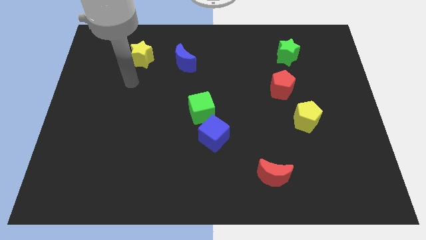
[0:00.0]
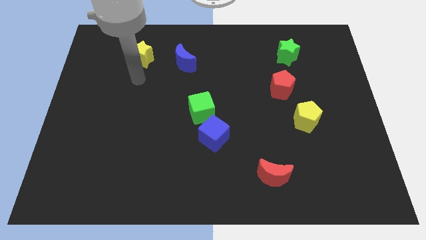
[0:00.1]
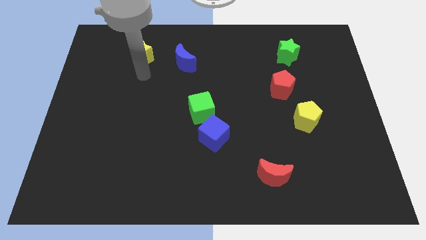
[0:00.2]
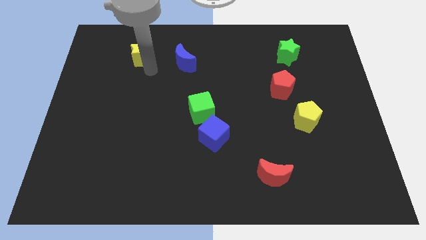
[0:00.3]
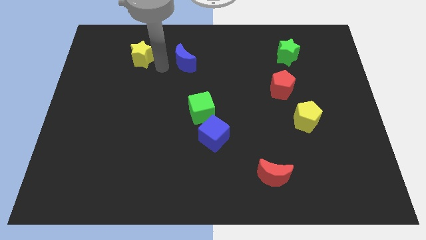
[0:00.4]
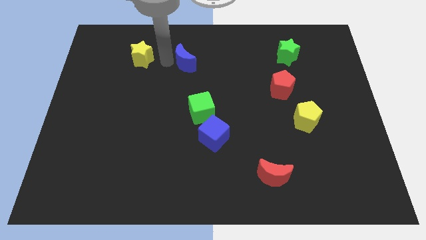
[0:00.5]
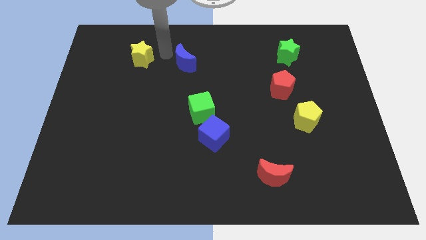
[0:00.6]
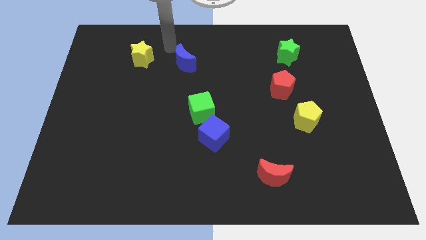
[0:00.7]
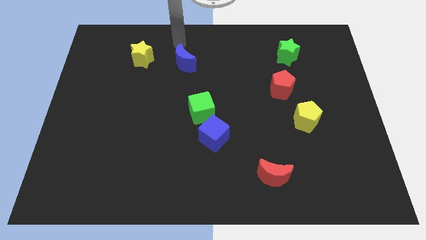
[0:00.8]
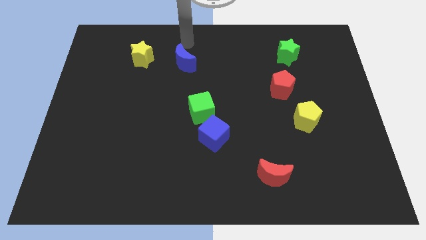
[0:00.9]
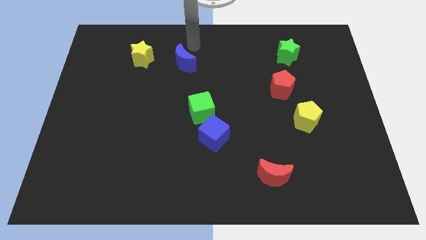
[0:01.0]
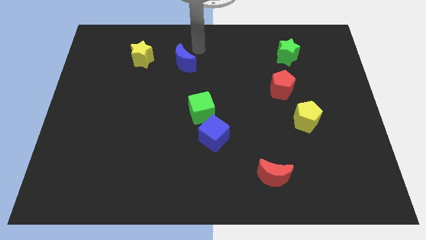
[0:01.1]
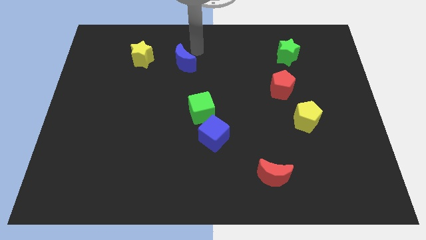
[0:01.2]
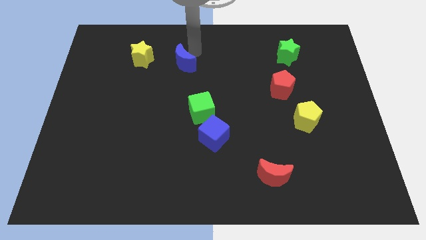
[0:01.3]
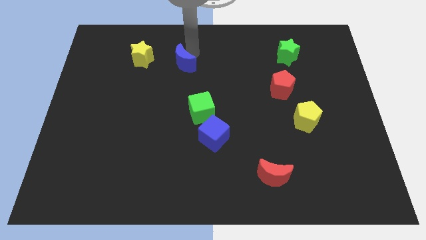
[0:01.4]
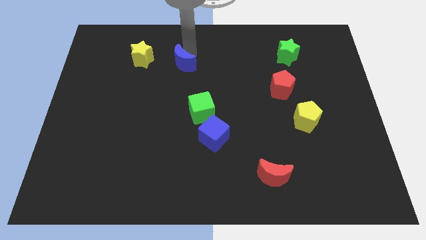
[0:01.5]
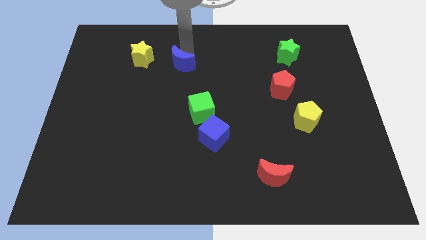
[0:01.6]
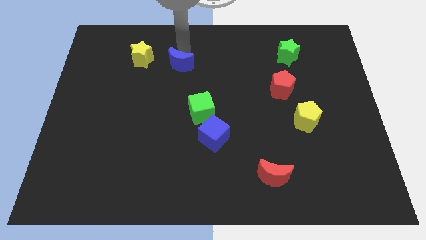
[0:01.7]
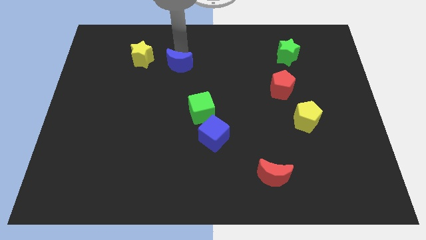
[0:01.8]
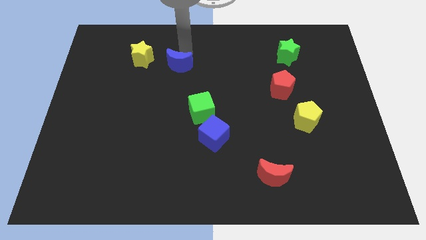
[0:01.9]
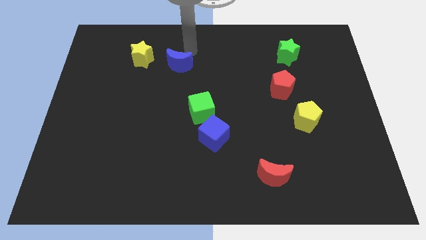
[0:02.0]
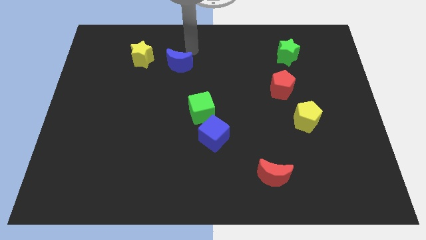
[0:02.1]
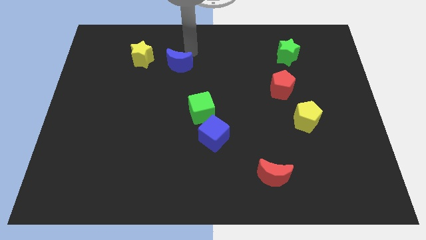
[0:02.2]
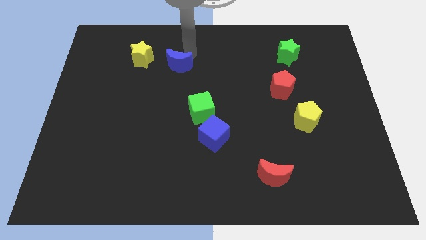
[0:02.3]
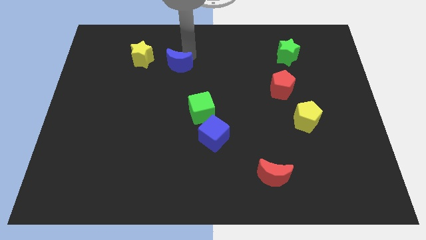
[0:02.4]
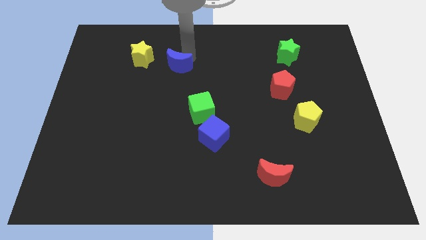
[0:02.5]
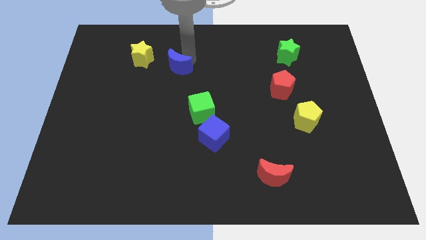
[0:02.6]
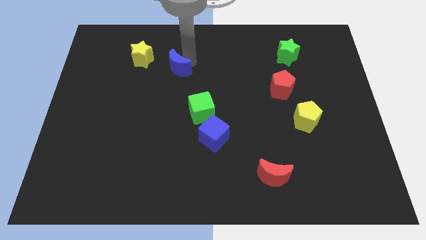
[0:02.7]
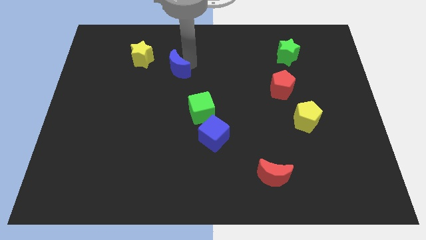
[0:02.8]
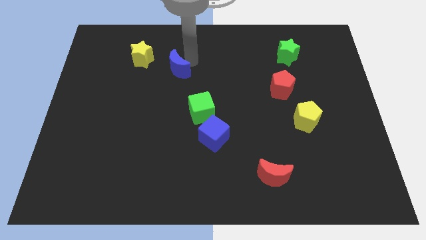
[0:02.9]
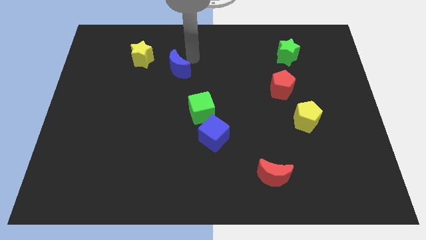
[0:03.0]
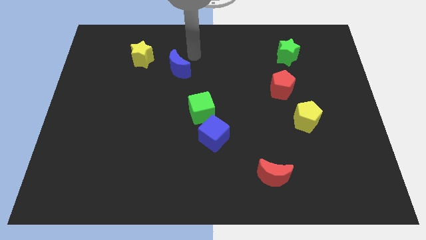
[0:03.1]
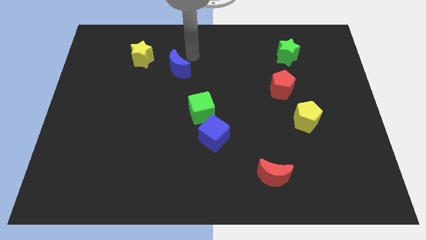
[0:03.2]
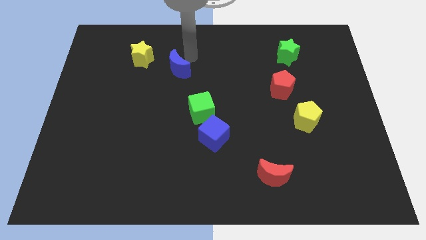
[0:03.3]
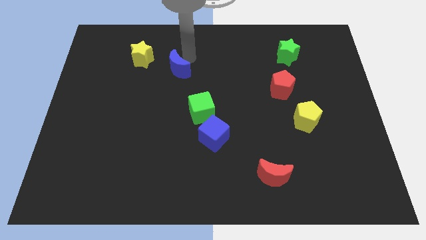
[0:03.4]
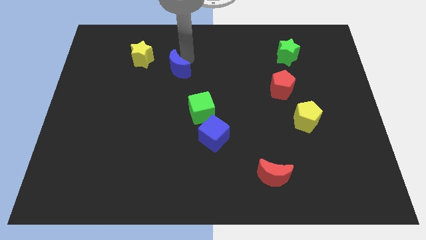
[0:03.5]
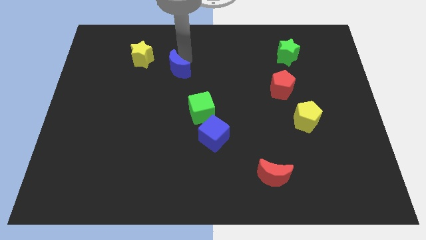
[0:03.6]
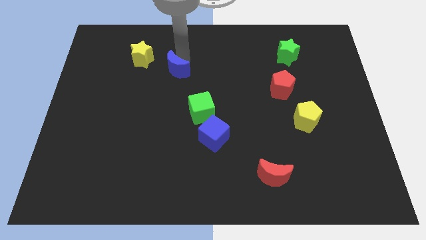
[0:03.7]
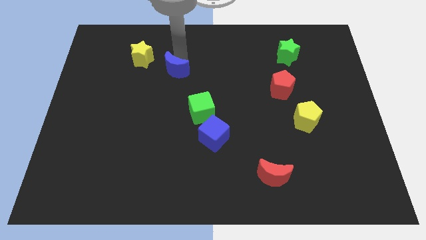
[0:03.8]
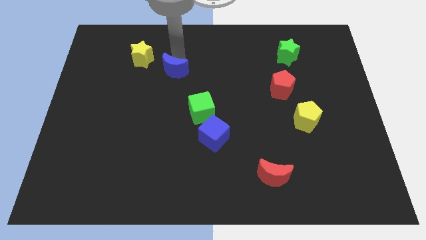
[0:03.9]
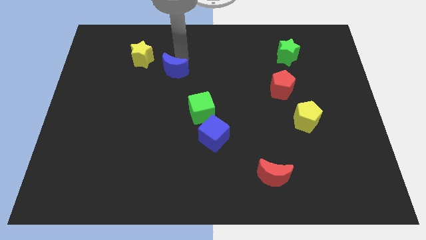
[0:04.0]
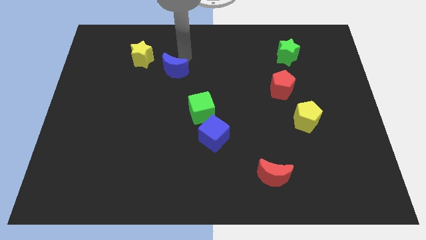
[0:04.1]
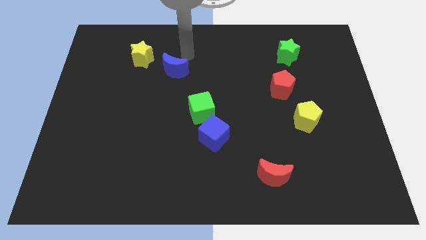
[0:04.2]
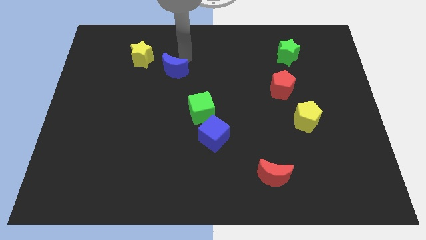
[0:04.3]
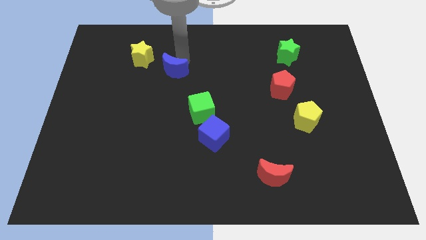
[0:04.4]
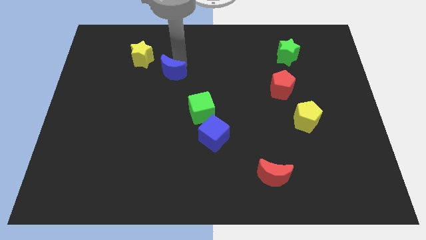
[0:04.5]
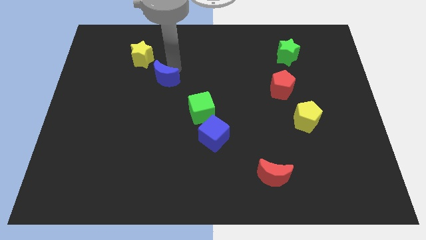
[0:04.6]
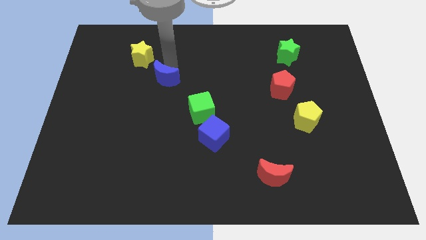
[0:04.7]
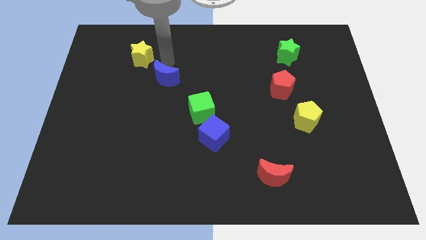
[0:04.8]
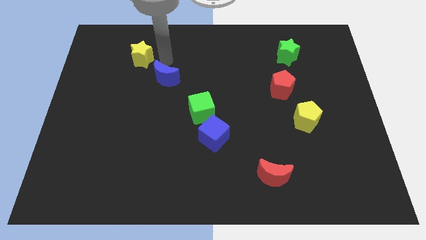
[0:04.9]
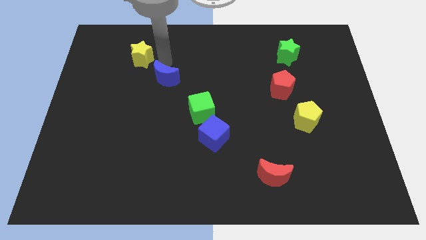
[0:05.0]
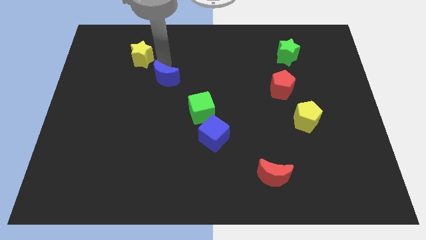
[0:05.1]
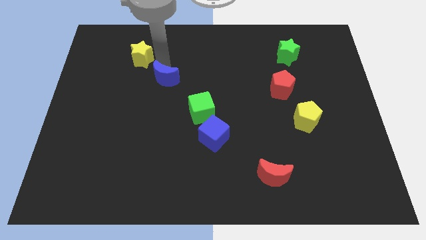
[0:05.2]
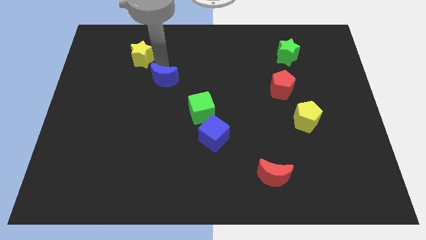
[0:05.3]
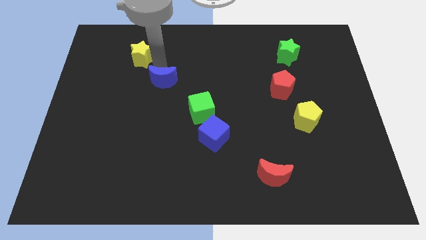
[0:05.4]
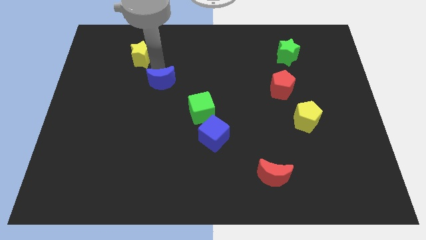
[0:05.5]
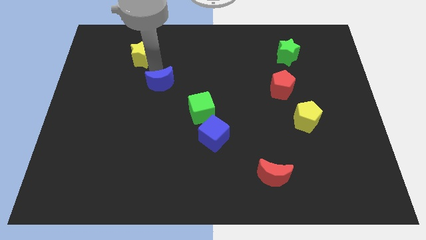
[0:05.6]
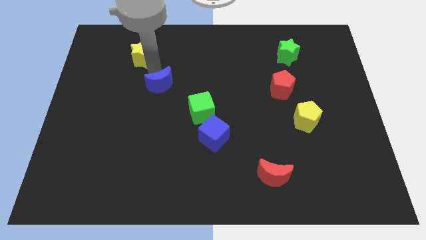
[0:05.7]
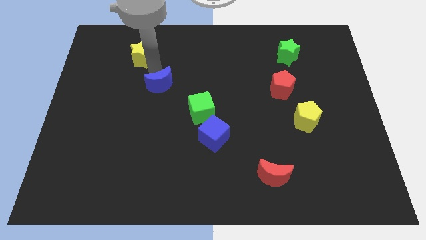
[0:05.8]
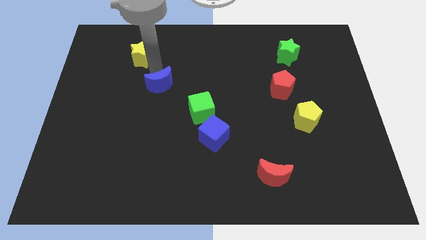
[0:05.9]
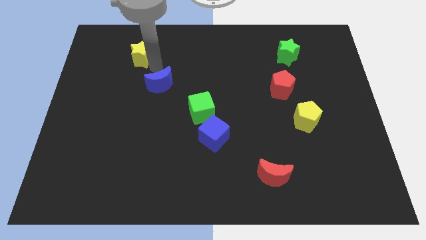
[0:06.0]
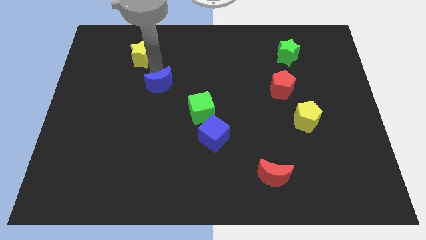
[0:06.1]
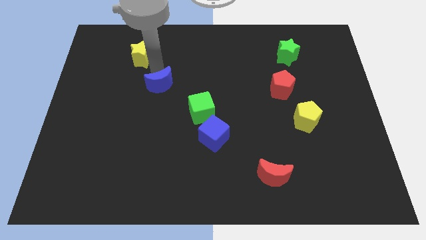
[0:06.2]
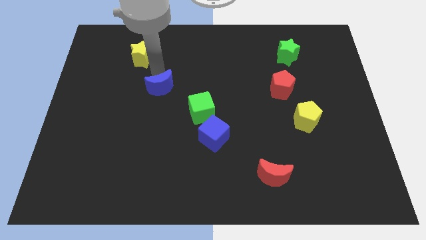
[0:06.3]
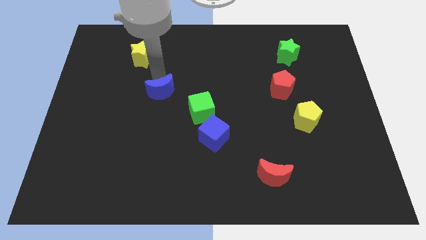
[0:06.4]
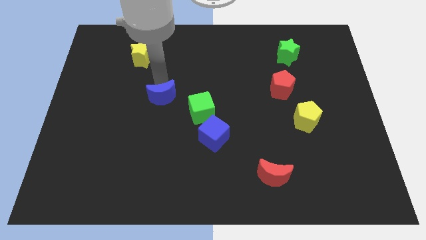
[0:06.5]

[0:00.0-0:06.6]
put the blue moon to the left side of the green cube

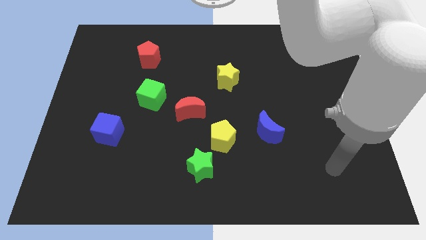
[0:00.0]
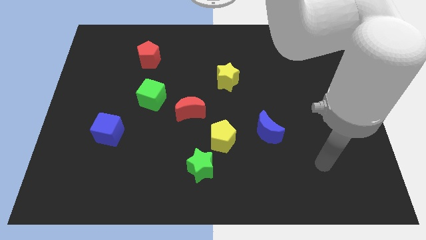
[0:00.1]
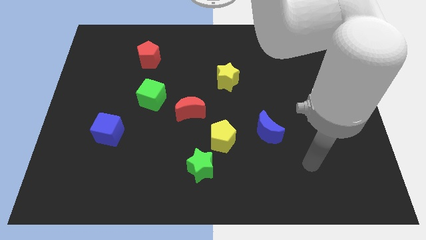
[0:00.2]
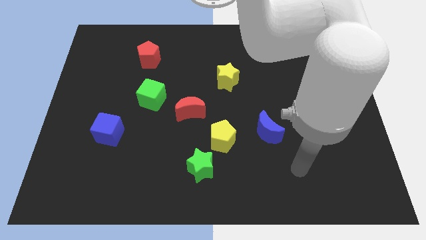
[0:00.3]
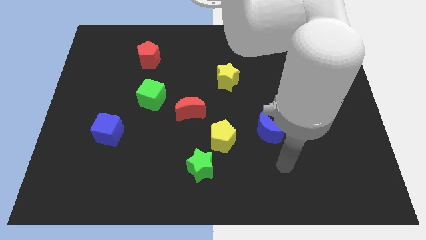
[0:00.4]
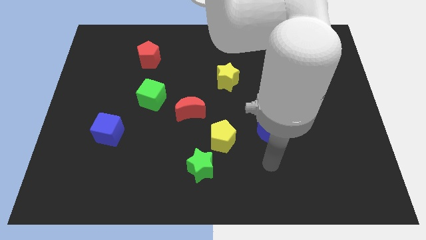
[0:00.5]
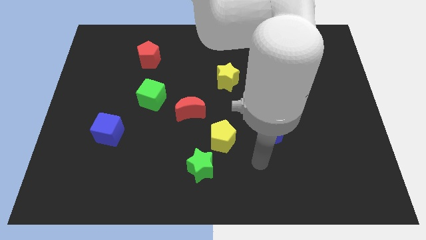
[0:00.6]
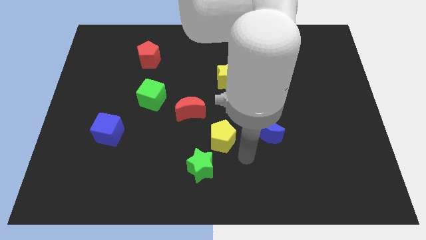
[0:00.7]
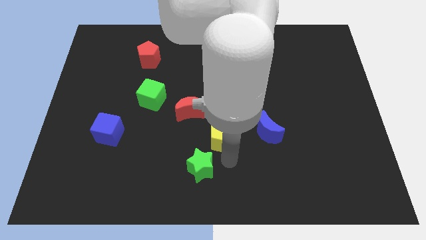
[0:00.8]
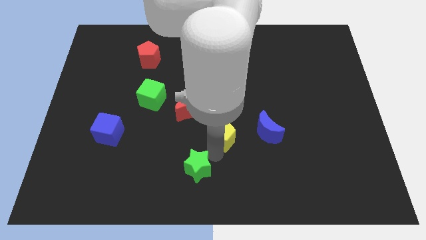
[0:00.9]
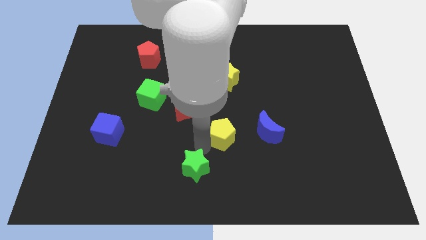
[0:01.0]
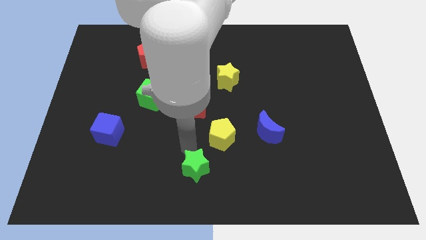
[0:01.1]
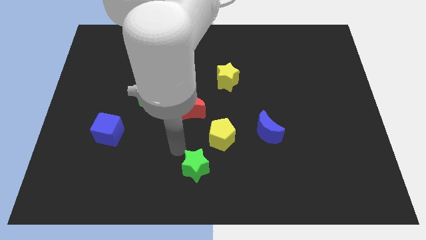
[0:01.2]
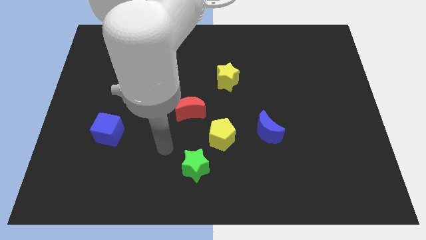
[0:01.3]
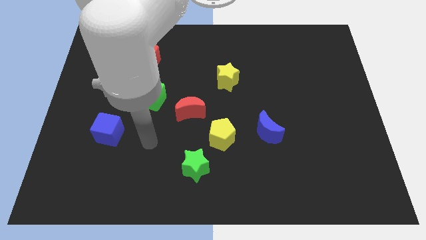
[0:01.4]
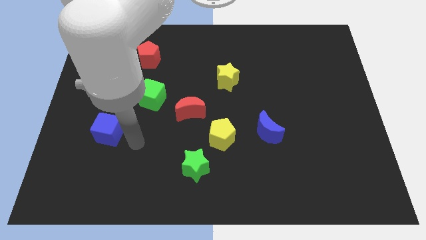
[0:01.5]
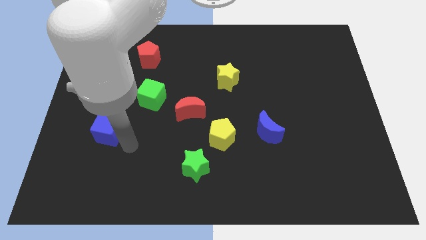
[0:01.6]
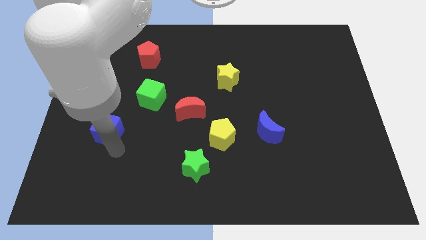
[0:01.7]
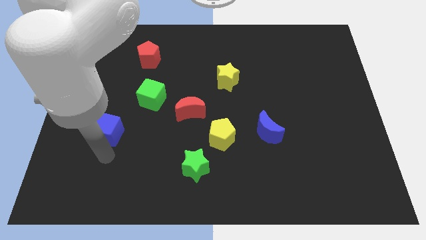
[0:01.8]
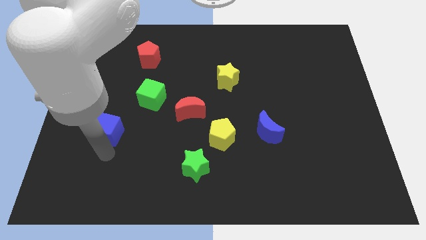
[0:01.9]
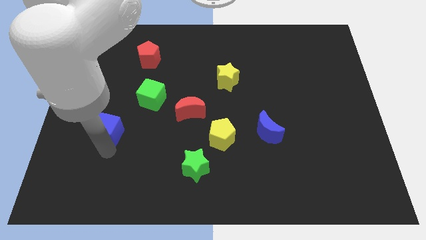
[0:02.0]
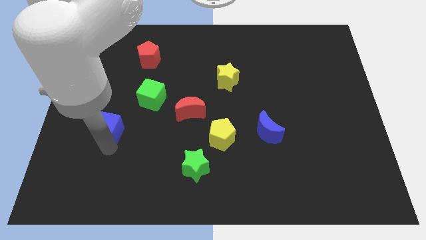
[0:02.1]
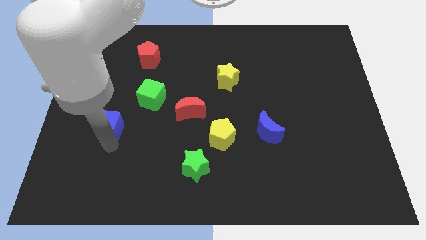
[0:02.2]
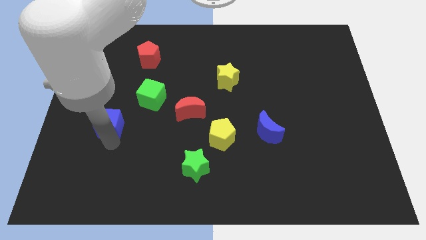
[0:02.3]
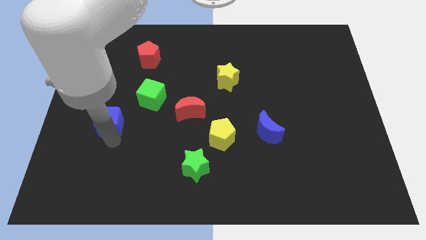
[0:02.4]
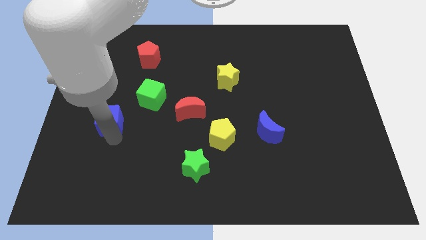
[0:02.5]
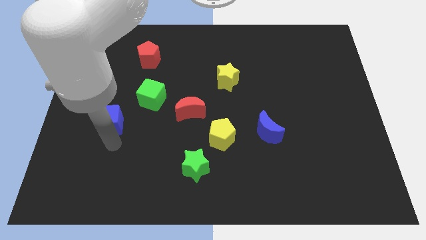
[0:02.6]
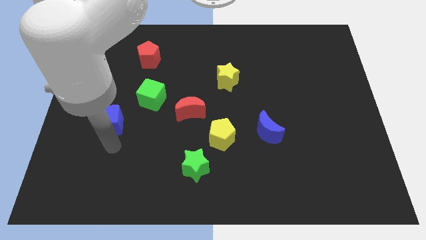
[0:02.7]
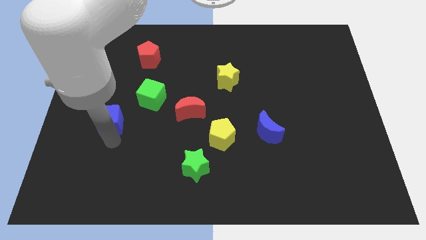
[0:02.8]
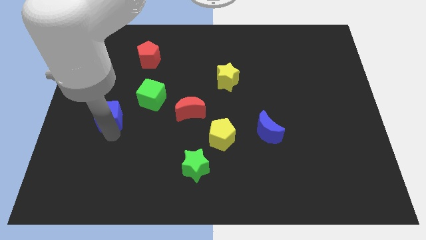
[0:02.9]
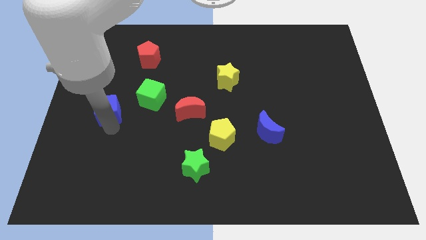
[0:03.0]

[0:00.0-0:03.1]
put the blue cube to the left side of the green cube
